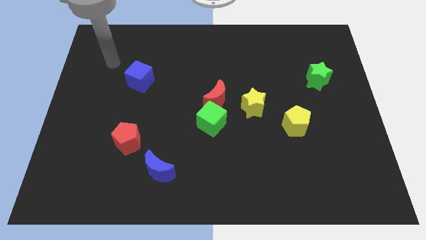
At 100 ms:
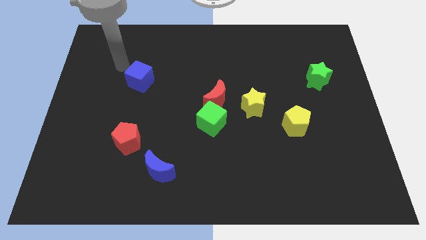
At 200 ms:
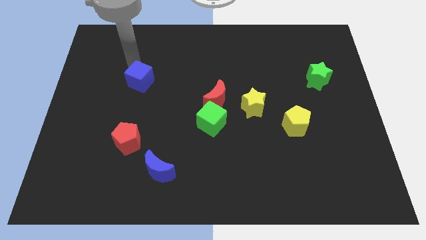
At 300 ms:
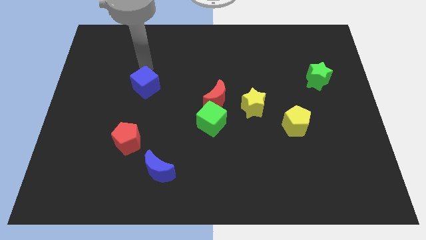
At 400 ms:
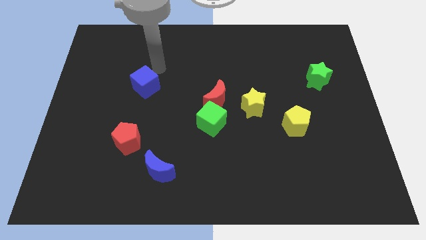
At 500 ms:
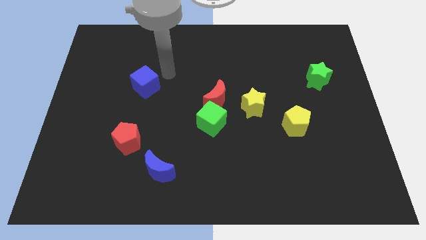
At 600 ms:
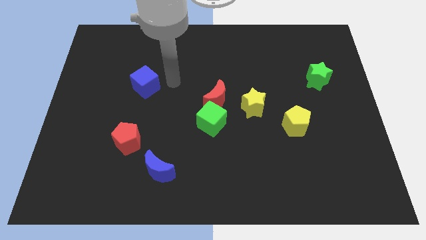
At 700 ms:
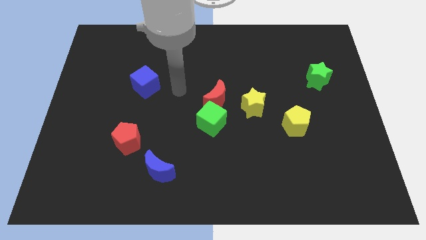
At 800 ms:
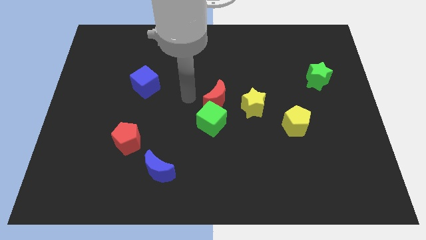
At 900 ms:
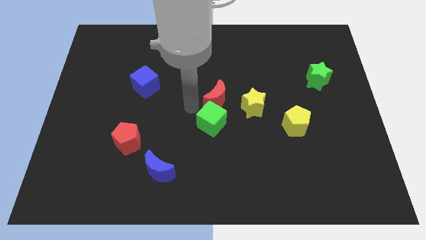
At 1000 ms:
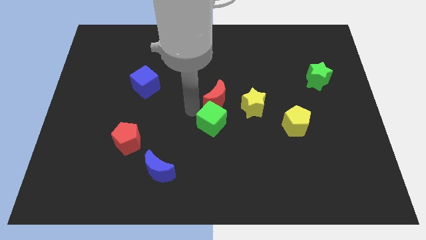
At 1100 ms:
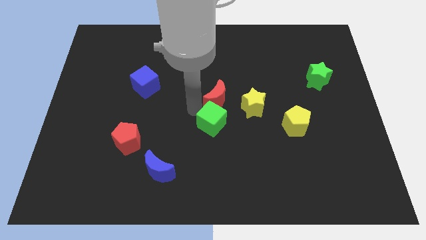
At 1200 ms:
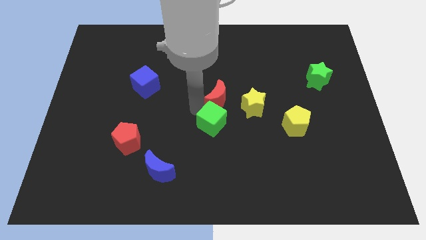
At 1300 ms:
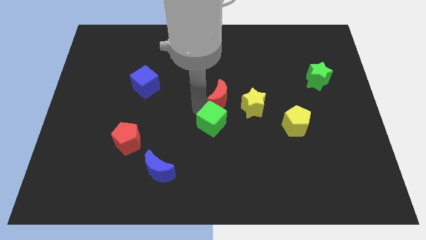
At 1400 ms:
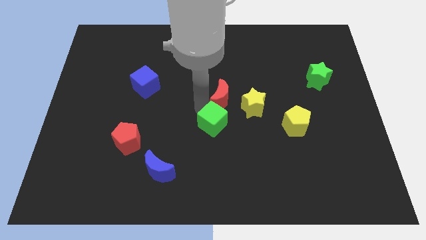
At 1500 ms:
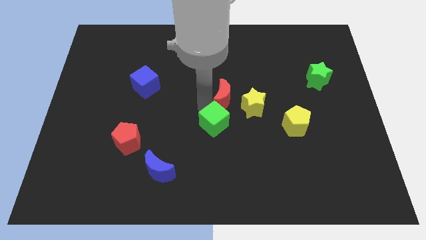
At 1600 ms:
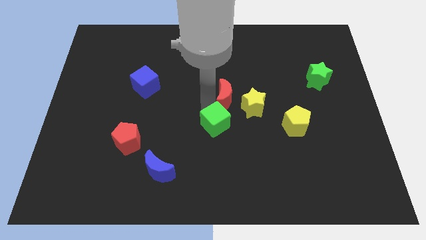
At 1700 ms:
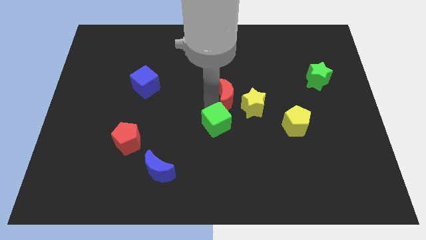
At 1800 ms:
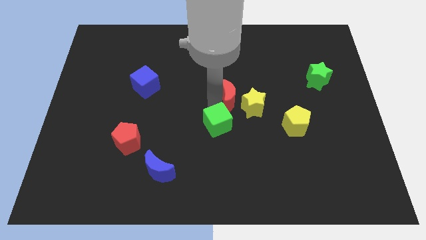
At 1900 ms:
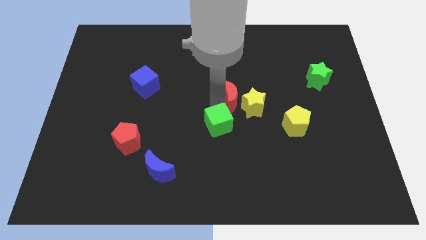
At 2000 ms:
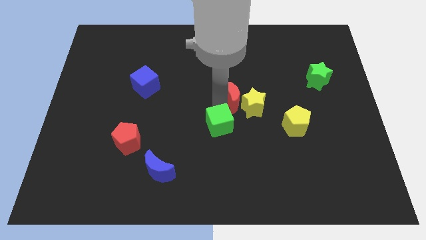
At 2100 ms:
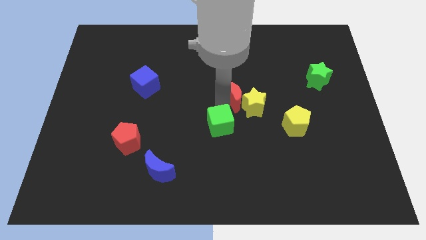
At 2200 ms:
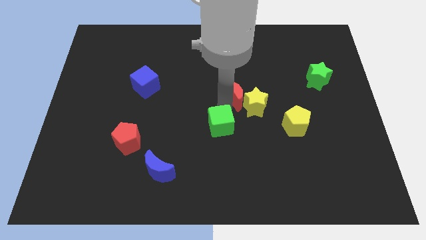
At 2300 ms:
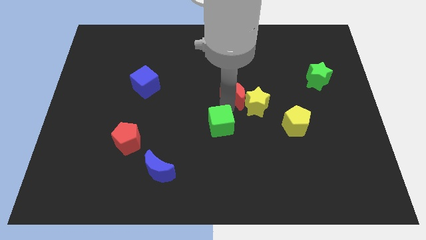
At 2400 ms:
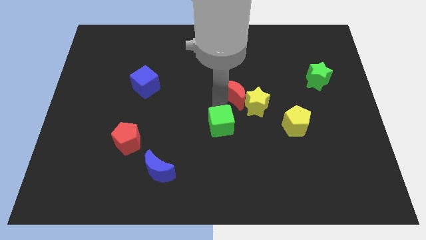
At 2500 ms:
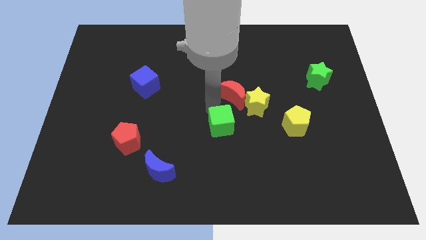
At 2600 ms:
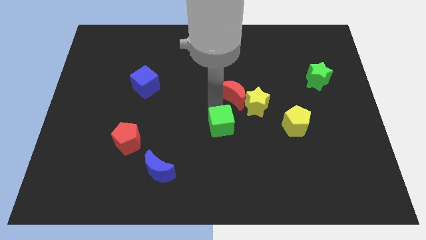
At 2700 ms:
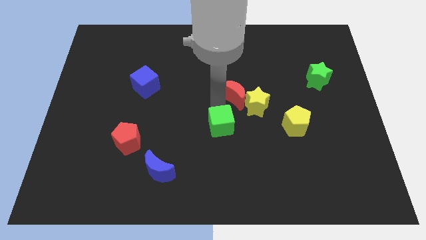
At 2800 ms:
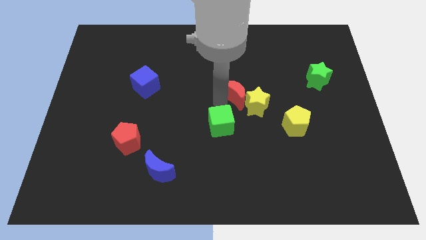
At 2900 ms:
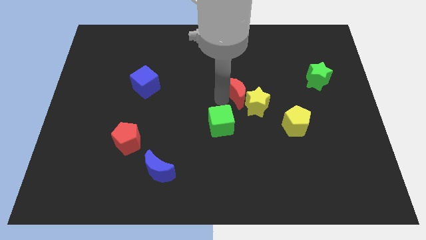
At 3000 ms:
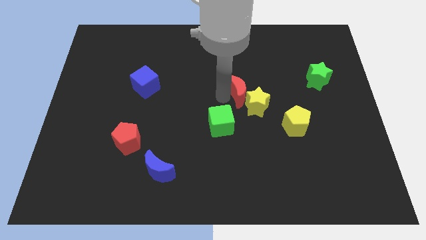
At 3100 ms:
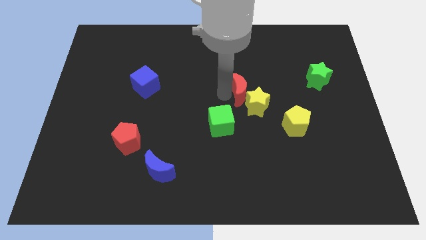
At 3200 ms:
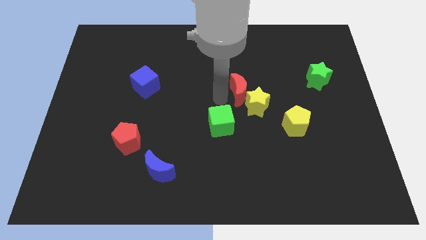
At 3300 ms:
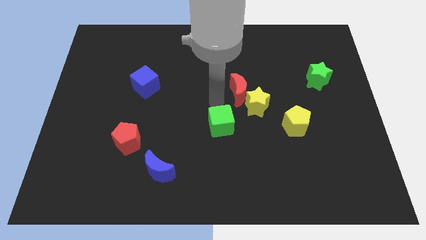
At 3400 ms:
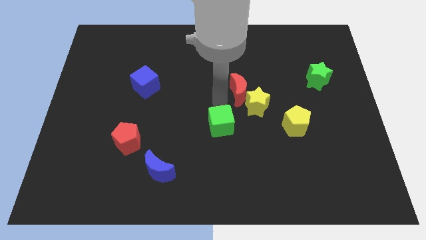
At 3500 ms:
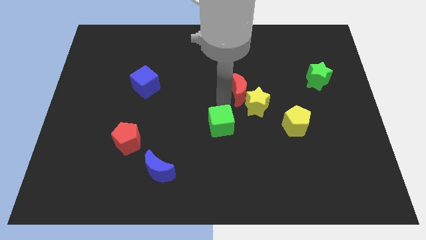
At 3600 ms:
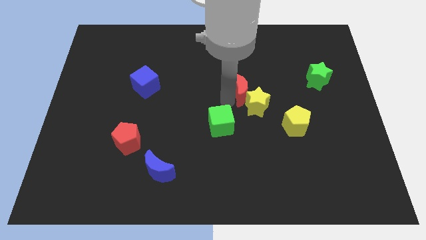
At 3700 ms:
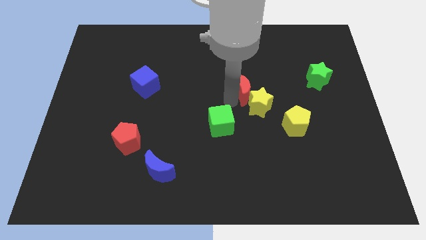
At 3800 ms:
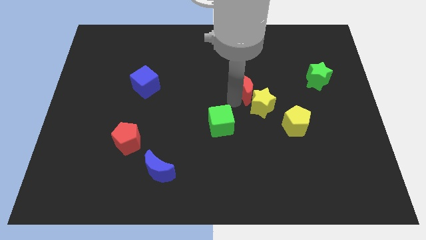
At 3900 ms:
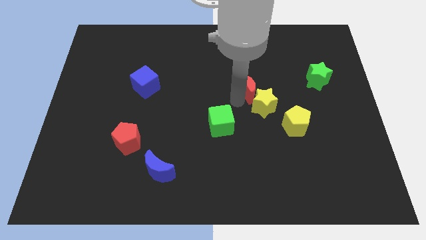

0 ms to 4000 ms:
slide the red moon to the right somewhat

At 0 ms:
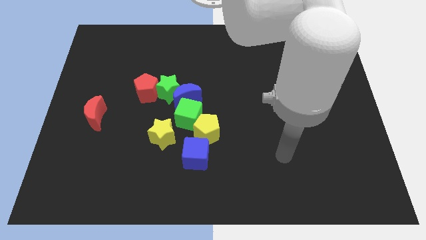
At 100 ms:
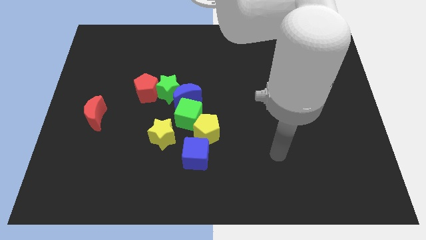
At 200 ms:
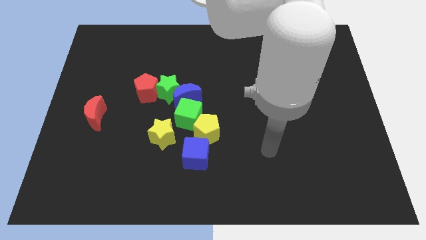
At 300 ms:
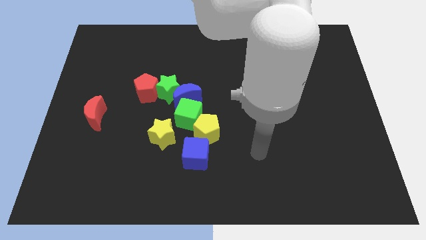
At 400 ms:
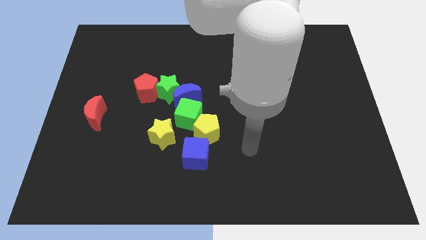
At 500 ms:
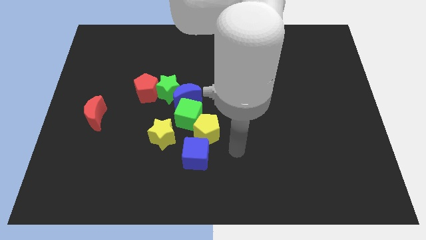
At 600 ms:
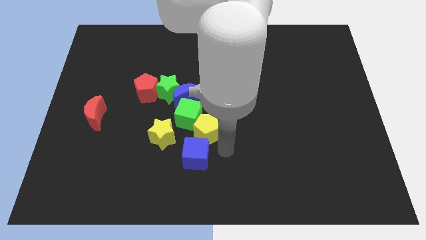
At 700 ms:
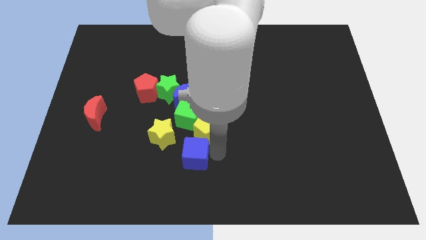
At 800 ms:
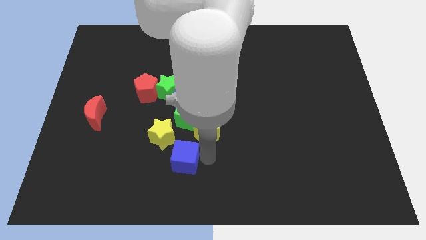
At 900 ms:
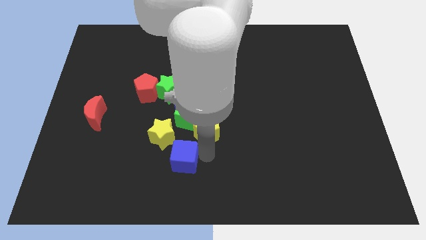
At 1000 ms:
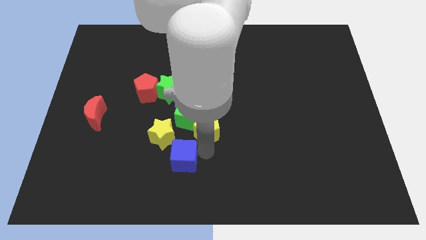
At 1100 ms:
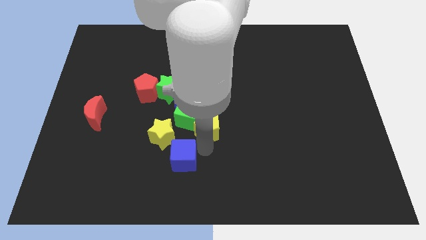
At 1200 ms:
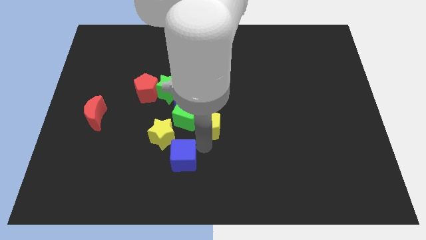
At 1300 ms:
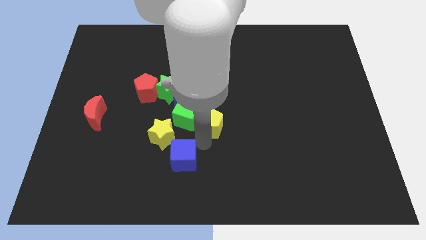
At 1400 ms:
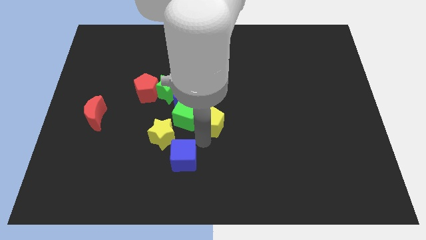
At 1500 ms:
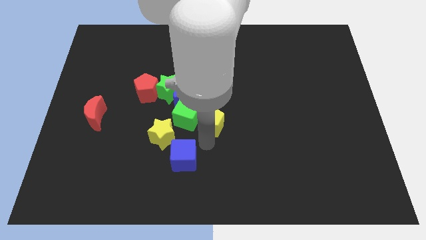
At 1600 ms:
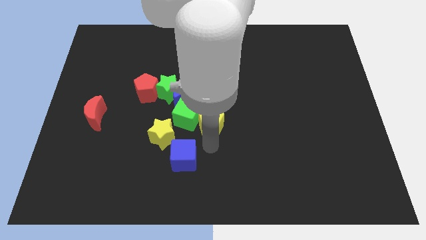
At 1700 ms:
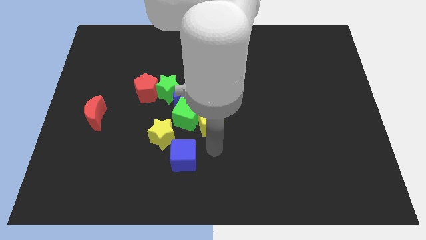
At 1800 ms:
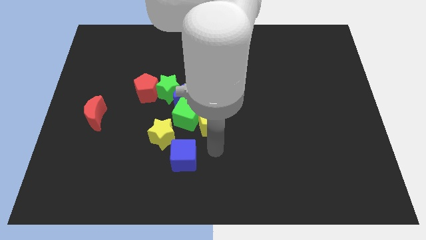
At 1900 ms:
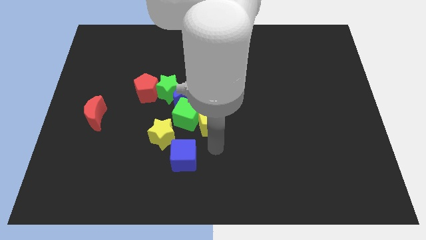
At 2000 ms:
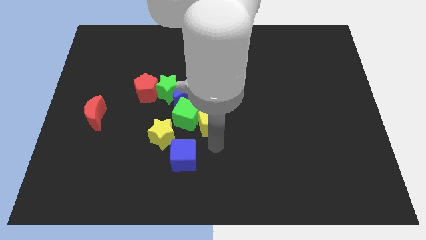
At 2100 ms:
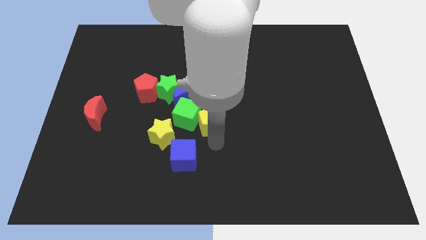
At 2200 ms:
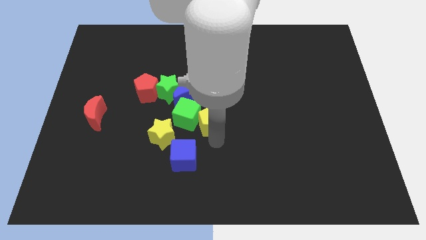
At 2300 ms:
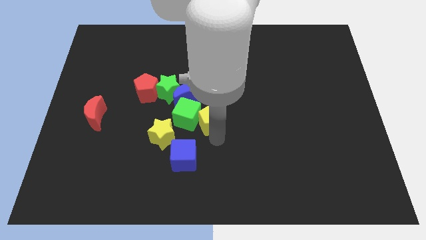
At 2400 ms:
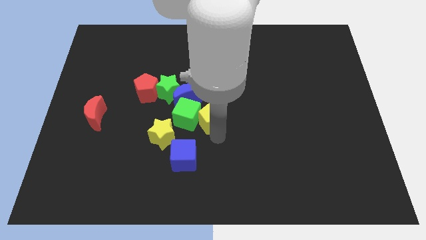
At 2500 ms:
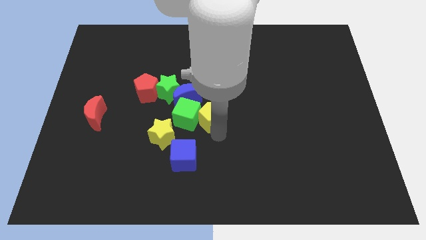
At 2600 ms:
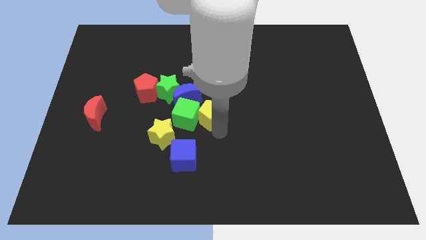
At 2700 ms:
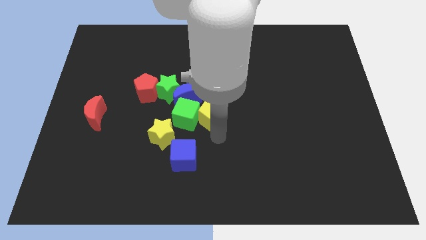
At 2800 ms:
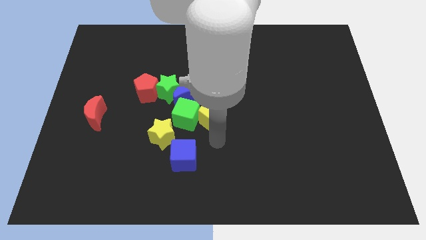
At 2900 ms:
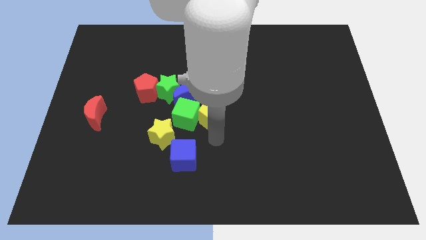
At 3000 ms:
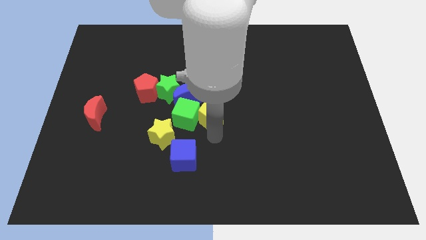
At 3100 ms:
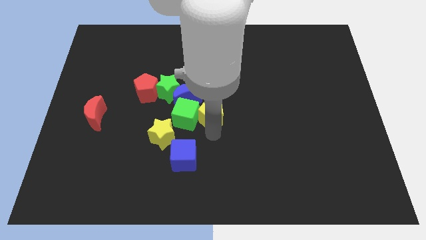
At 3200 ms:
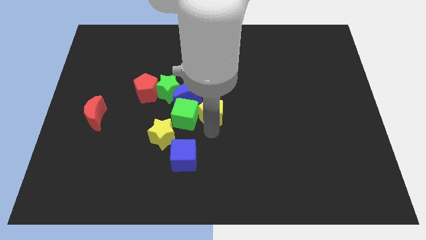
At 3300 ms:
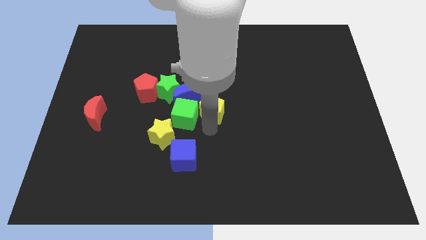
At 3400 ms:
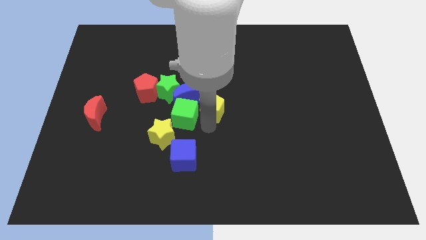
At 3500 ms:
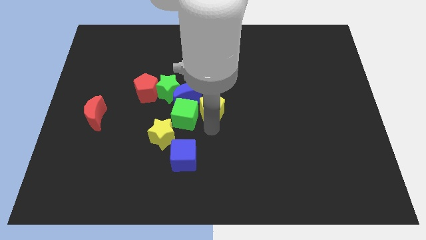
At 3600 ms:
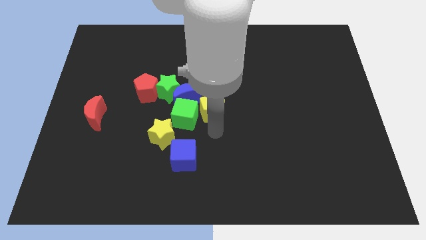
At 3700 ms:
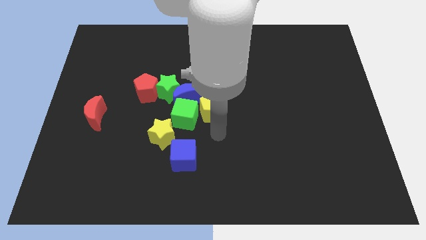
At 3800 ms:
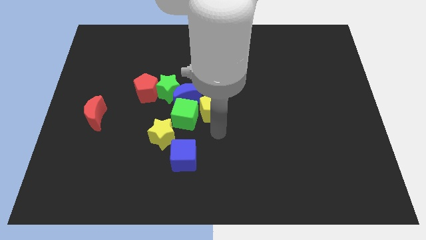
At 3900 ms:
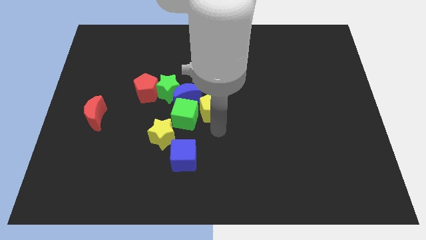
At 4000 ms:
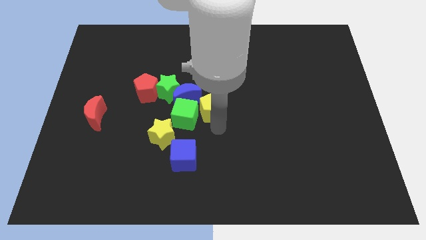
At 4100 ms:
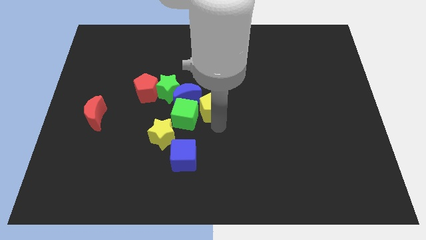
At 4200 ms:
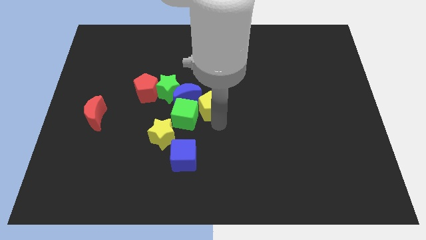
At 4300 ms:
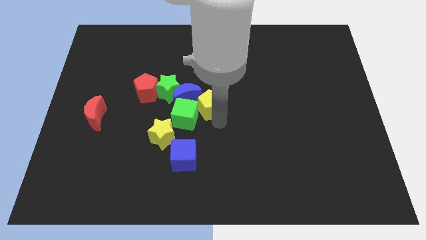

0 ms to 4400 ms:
move the yellow pentagon a bit up
